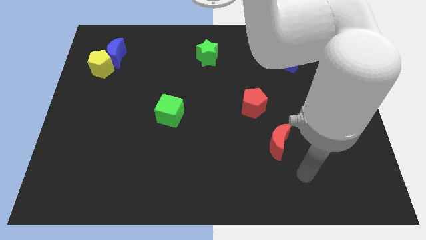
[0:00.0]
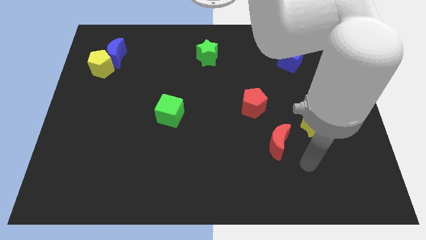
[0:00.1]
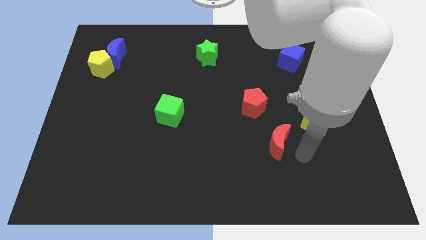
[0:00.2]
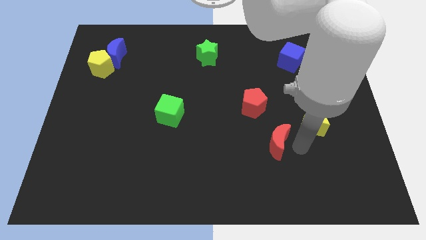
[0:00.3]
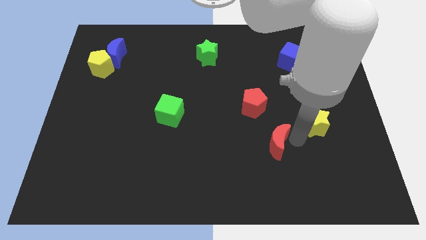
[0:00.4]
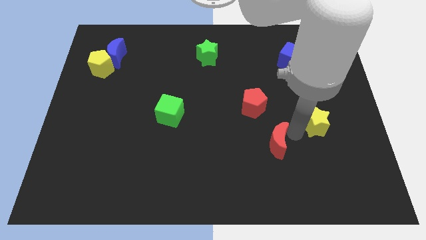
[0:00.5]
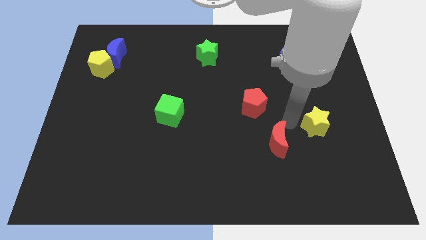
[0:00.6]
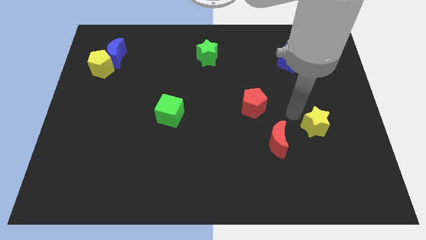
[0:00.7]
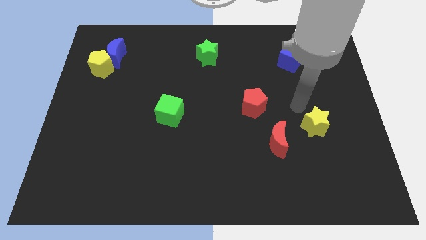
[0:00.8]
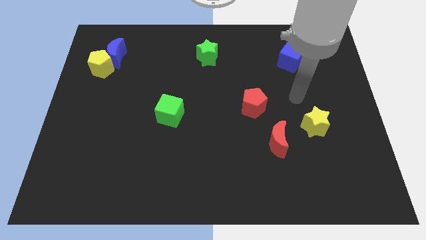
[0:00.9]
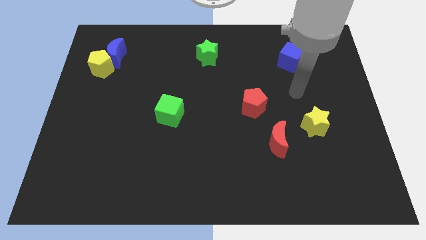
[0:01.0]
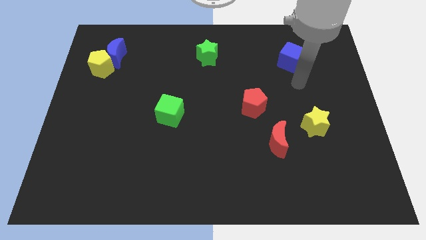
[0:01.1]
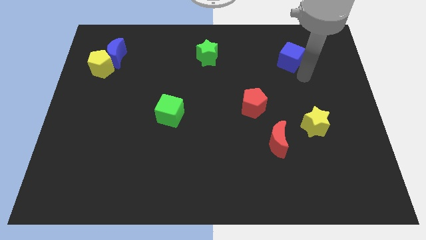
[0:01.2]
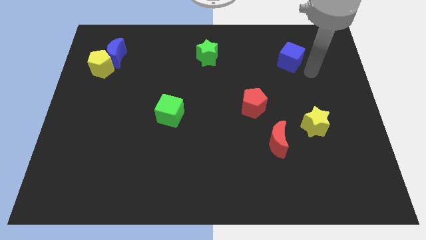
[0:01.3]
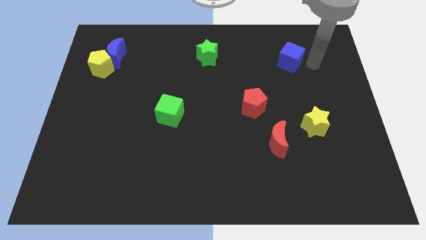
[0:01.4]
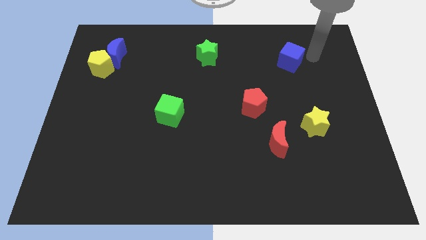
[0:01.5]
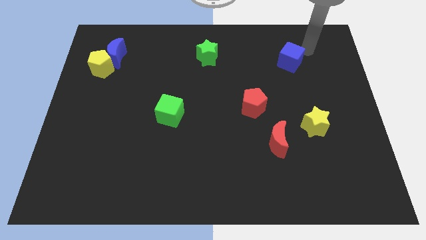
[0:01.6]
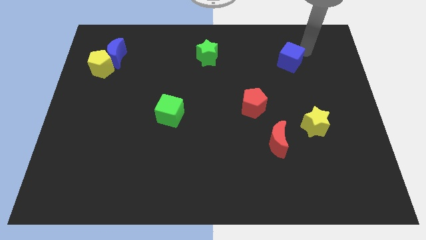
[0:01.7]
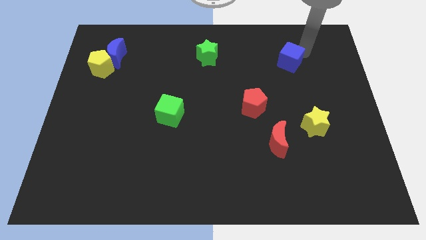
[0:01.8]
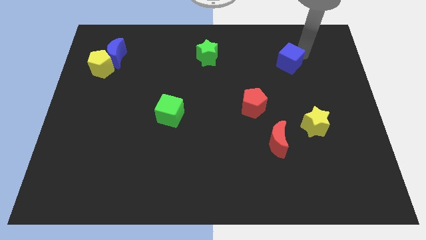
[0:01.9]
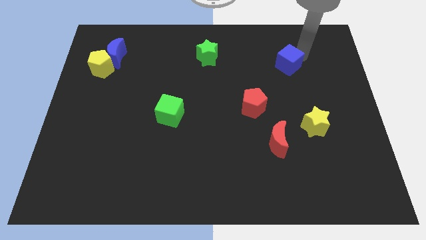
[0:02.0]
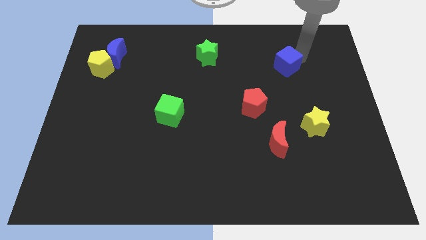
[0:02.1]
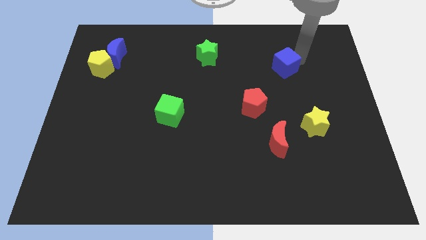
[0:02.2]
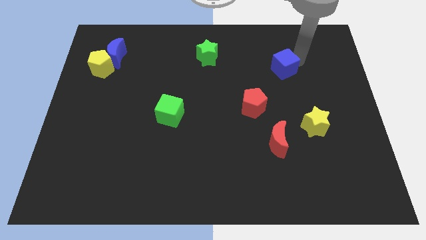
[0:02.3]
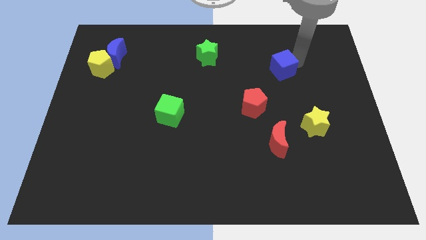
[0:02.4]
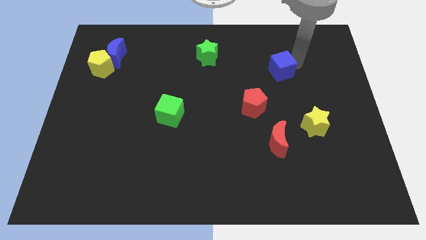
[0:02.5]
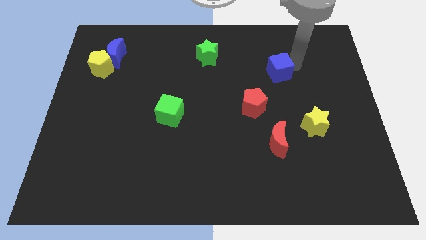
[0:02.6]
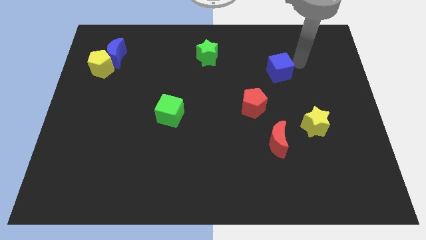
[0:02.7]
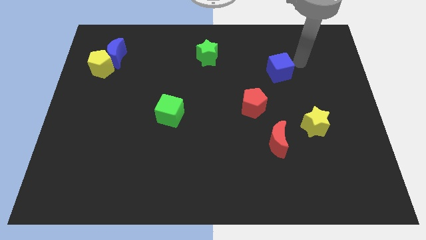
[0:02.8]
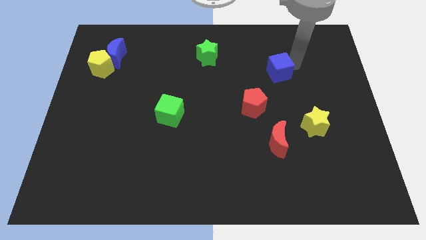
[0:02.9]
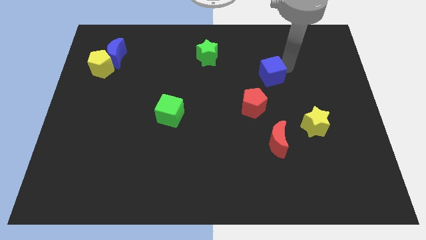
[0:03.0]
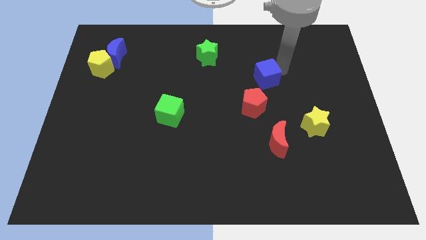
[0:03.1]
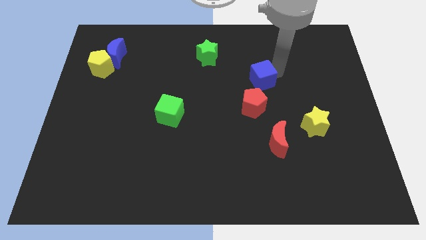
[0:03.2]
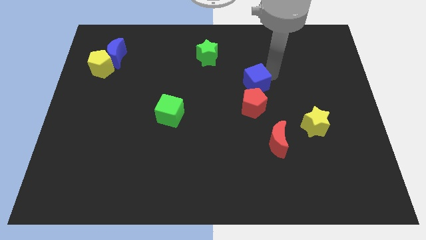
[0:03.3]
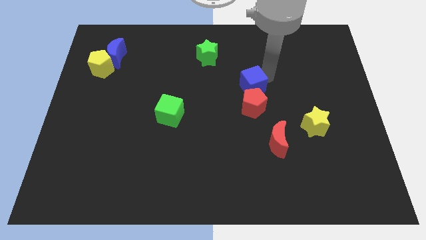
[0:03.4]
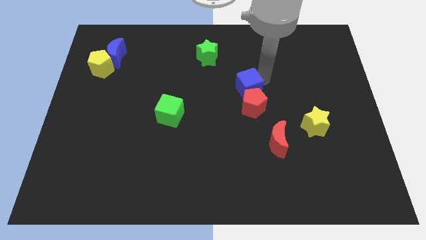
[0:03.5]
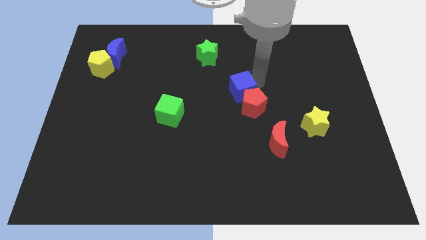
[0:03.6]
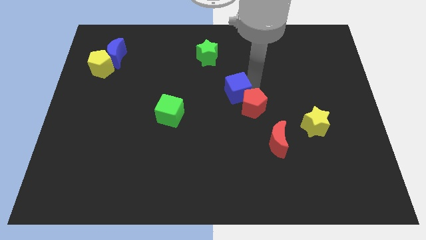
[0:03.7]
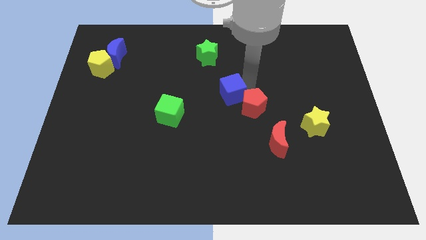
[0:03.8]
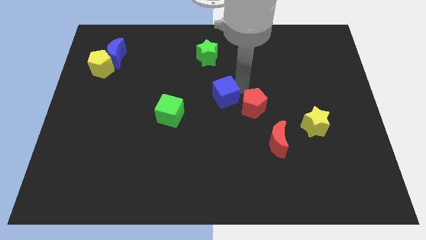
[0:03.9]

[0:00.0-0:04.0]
push the blue cube diagonally downwards and to the left

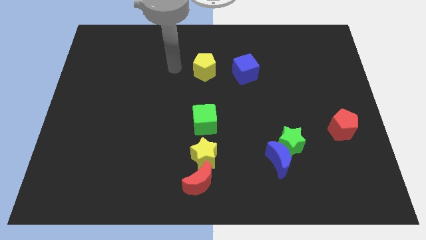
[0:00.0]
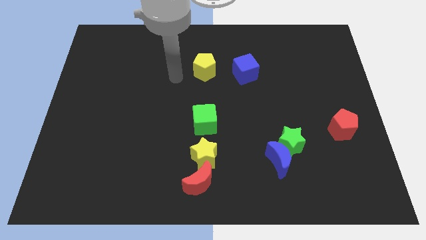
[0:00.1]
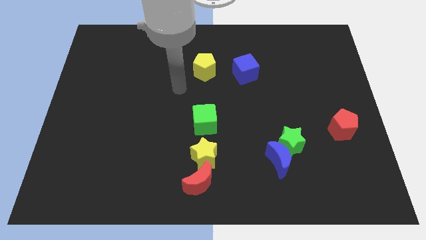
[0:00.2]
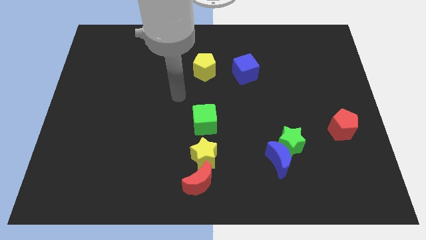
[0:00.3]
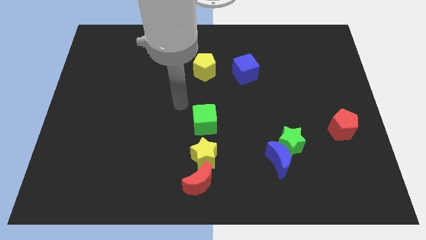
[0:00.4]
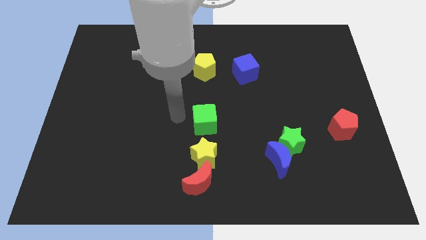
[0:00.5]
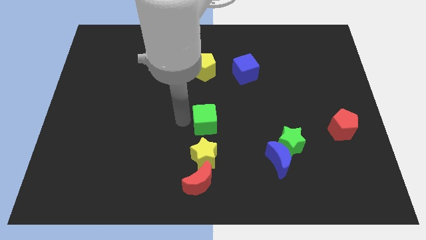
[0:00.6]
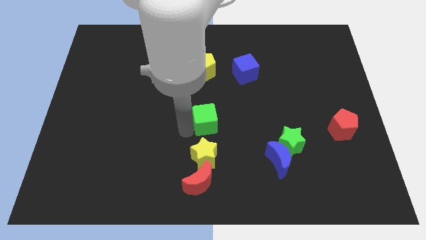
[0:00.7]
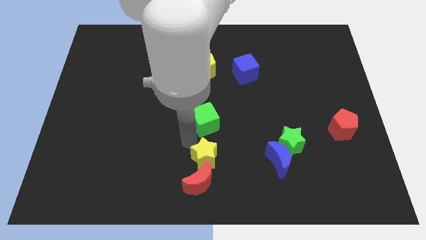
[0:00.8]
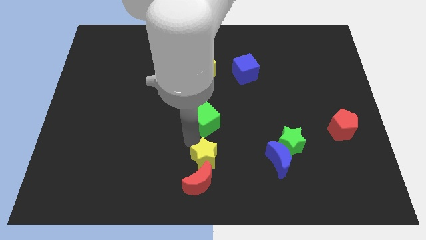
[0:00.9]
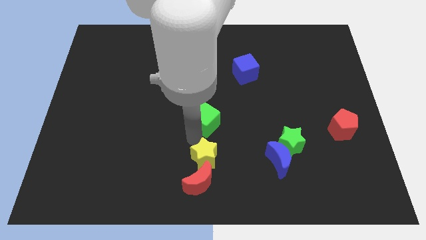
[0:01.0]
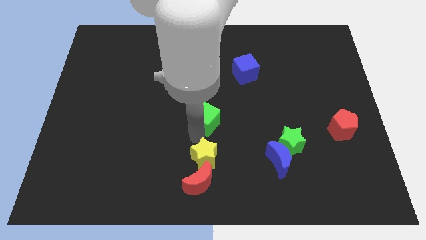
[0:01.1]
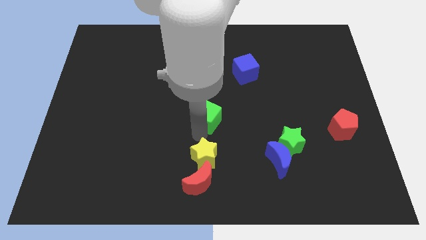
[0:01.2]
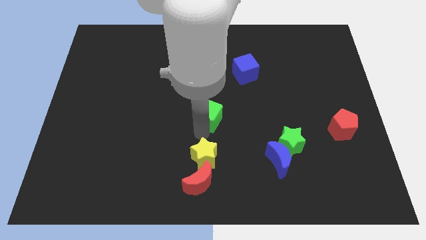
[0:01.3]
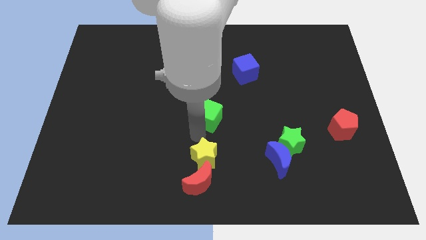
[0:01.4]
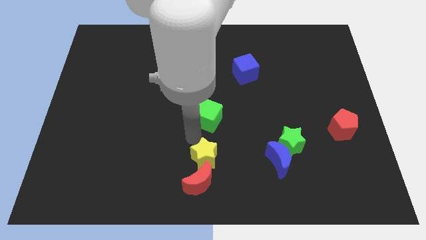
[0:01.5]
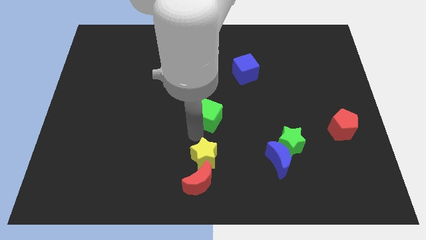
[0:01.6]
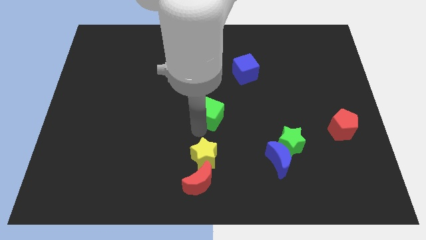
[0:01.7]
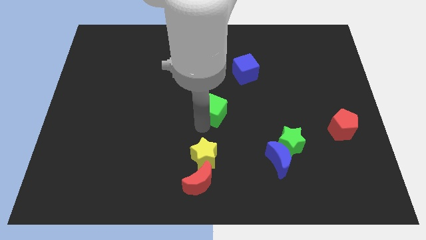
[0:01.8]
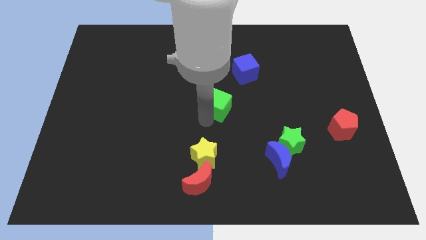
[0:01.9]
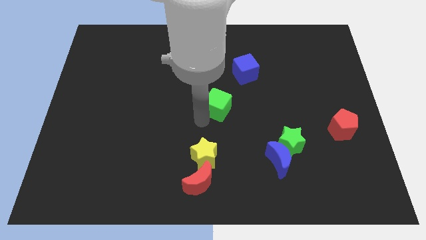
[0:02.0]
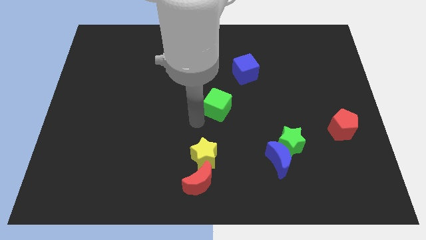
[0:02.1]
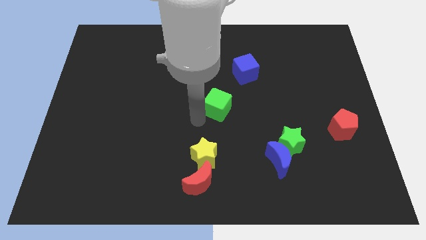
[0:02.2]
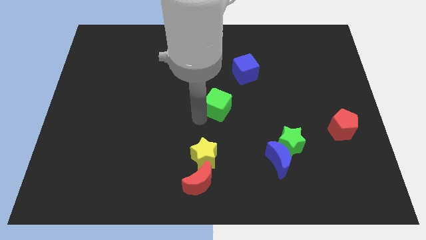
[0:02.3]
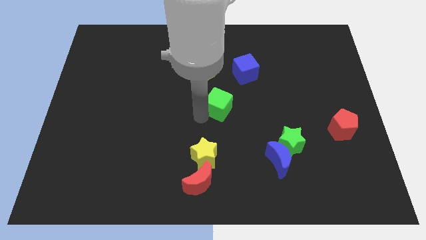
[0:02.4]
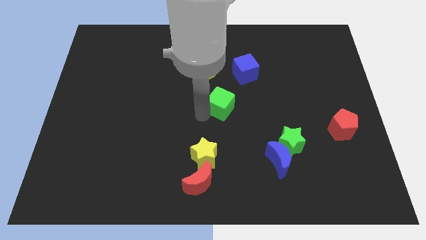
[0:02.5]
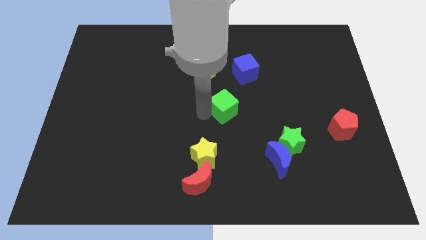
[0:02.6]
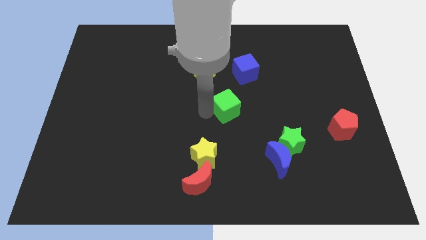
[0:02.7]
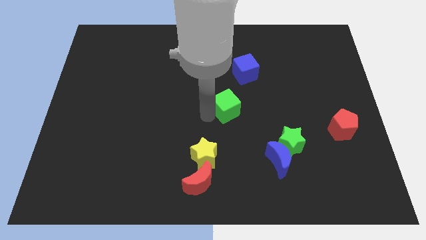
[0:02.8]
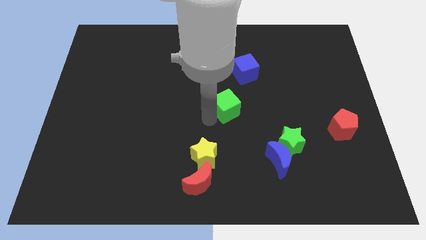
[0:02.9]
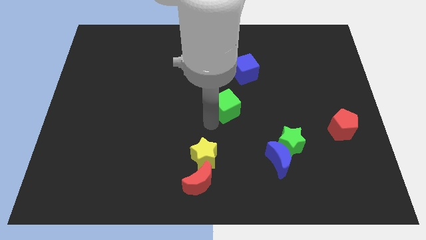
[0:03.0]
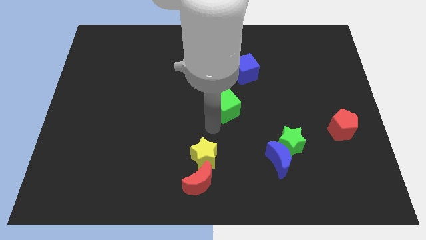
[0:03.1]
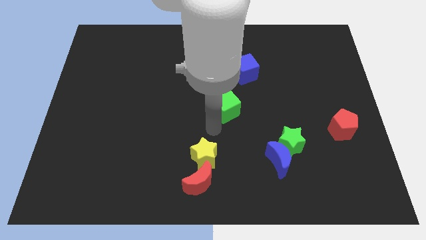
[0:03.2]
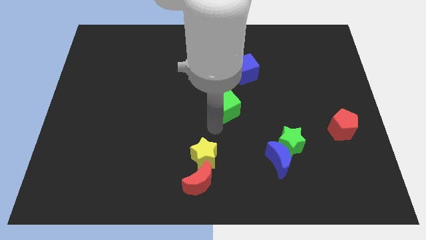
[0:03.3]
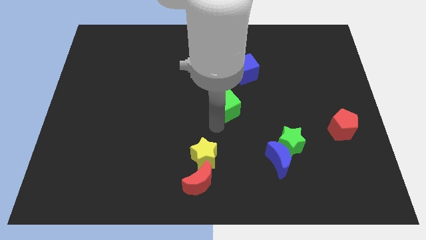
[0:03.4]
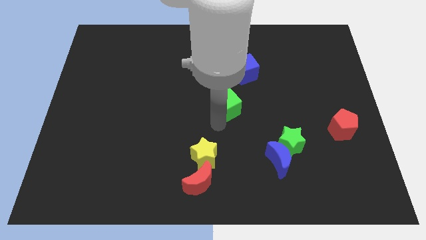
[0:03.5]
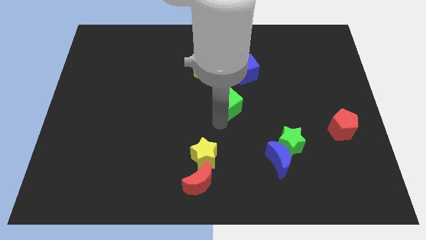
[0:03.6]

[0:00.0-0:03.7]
slightly push the green cube upwards and right diagonally

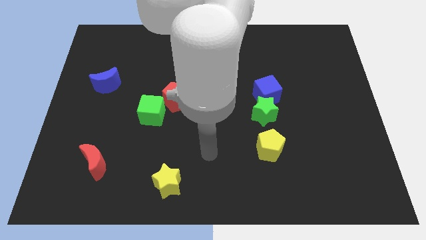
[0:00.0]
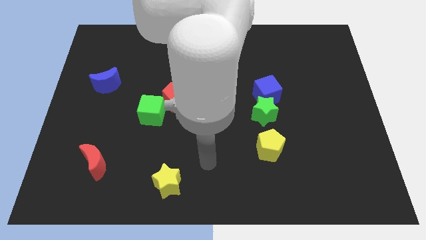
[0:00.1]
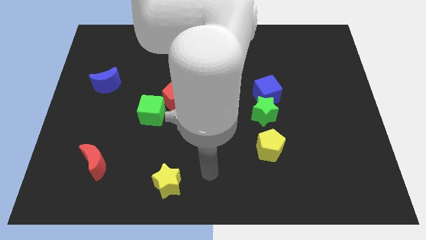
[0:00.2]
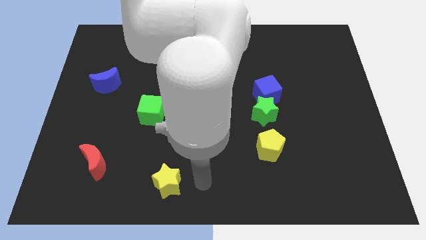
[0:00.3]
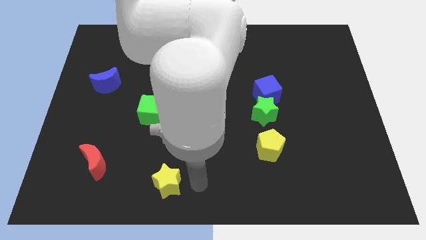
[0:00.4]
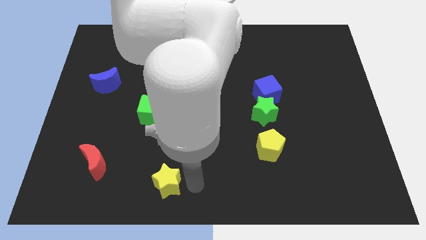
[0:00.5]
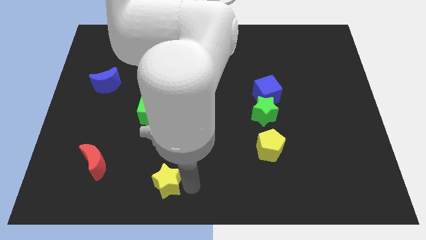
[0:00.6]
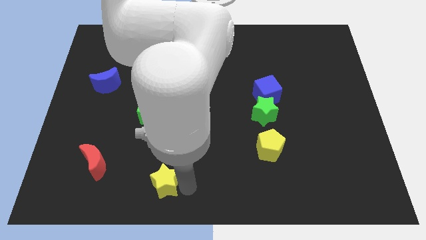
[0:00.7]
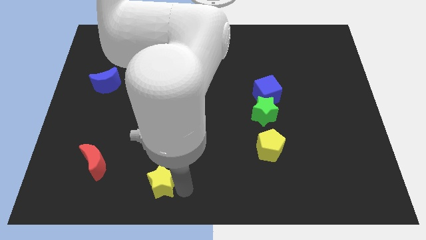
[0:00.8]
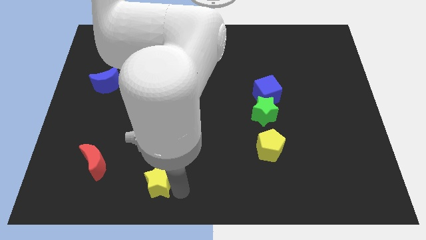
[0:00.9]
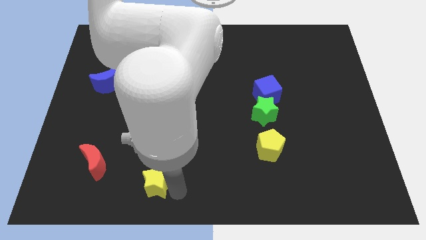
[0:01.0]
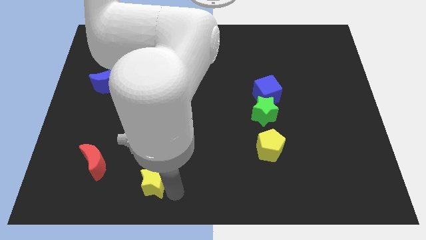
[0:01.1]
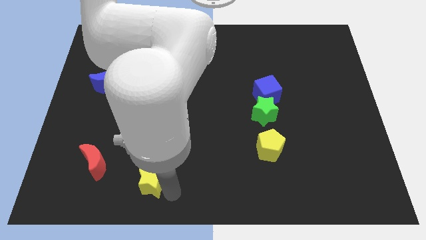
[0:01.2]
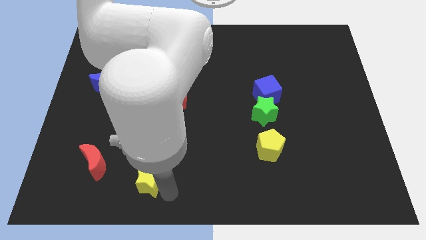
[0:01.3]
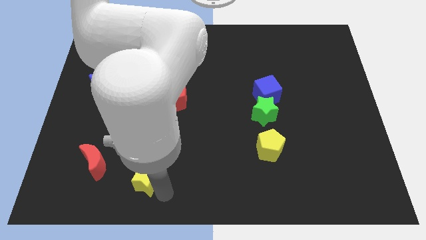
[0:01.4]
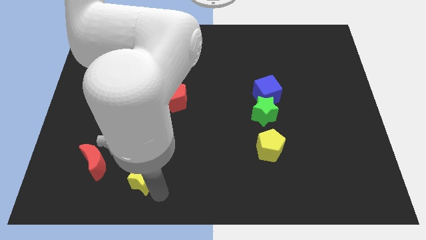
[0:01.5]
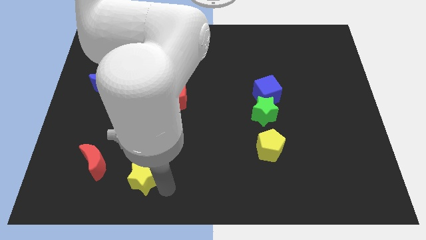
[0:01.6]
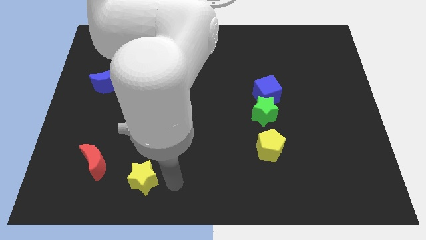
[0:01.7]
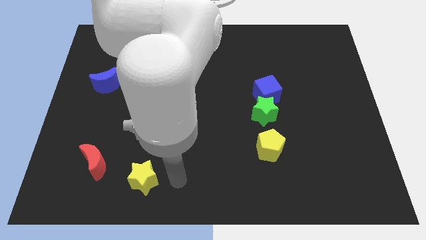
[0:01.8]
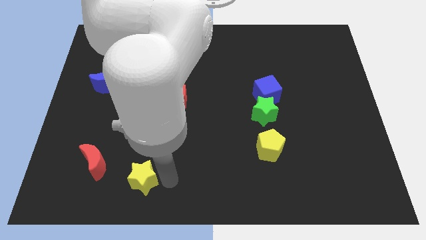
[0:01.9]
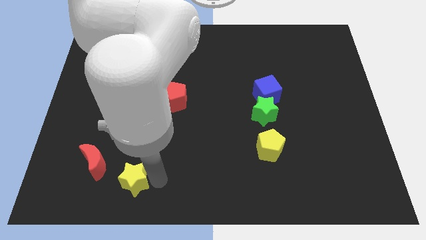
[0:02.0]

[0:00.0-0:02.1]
push the yellow star a little to the left
